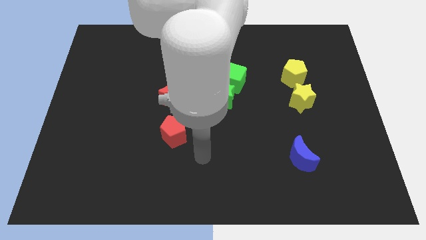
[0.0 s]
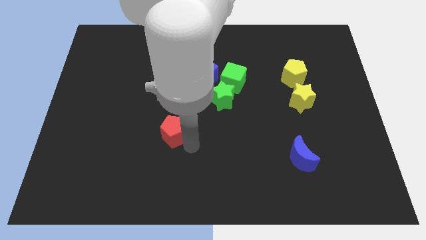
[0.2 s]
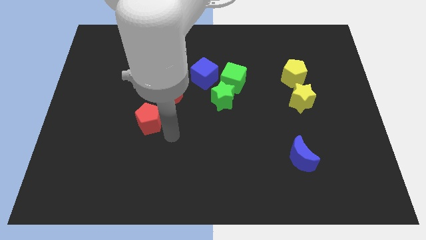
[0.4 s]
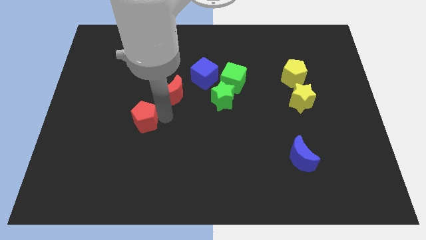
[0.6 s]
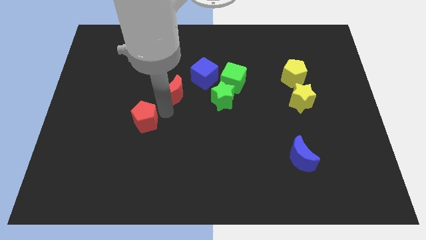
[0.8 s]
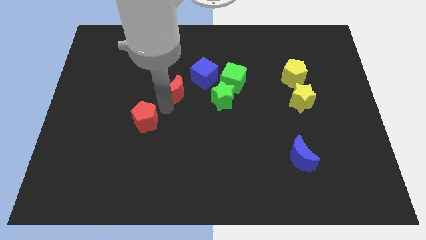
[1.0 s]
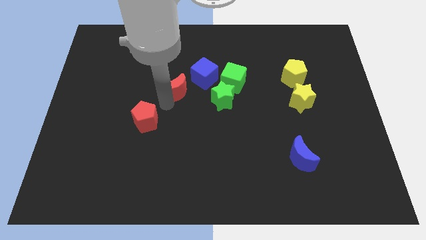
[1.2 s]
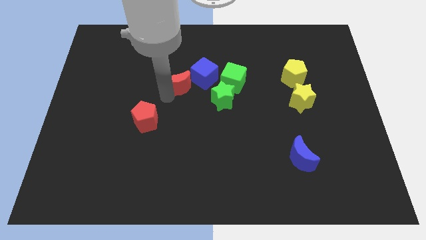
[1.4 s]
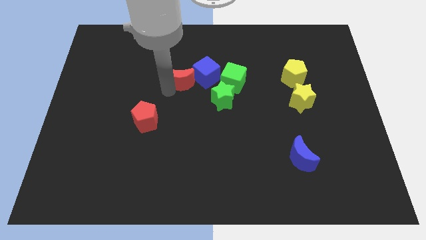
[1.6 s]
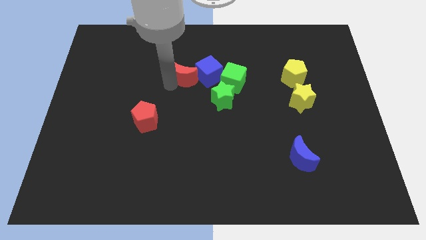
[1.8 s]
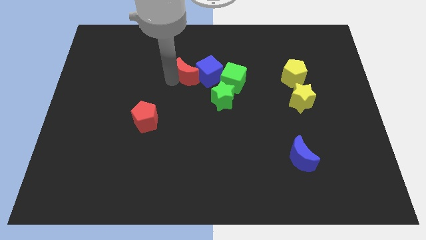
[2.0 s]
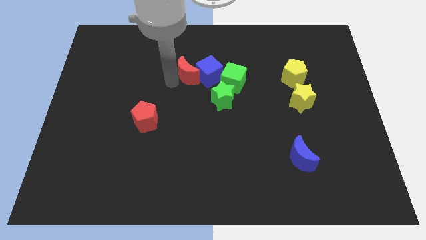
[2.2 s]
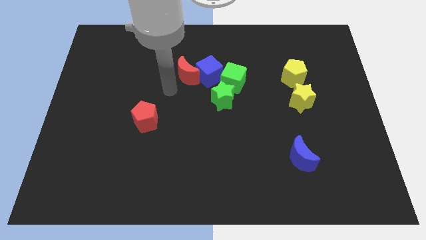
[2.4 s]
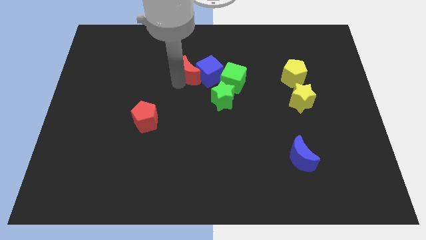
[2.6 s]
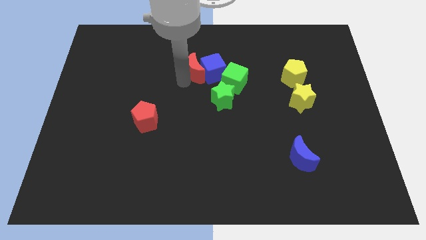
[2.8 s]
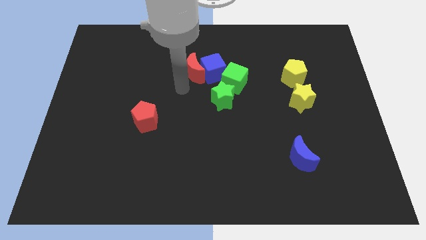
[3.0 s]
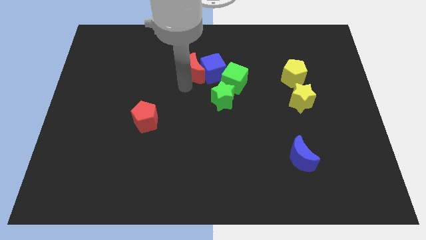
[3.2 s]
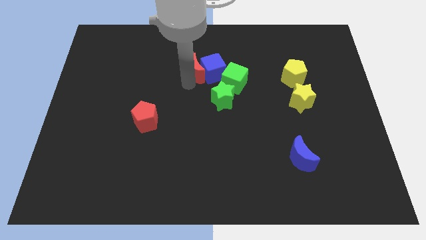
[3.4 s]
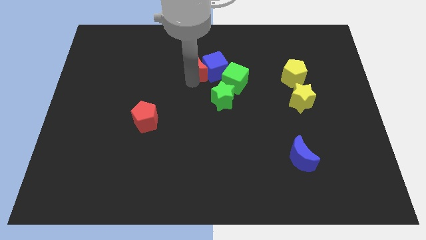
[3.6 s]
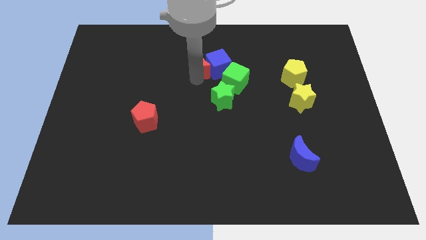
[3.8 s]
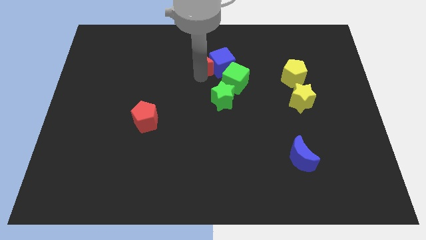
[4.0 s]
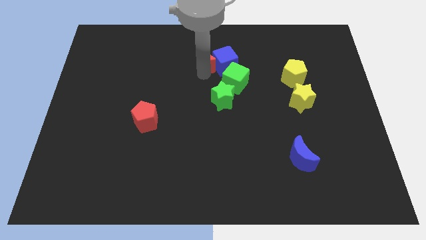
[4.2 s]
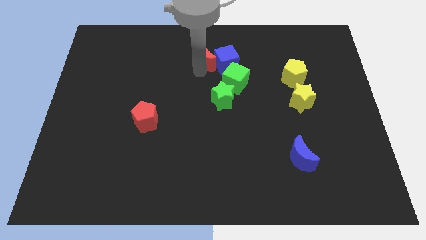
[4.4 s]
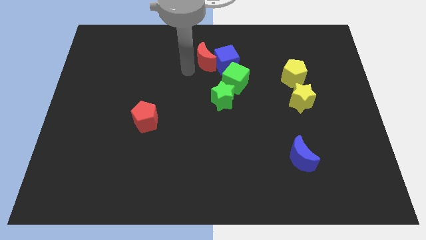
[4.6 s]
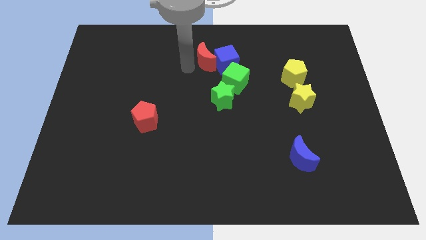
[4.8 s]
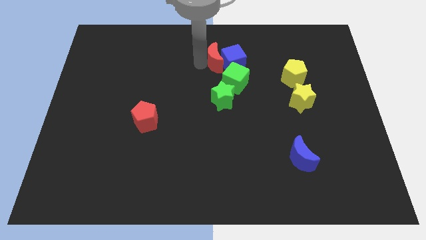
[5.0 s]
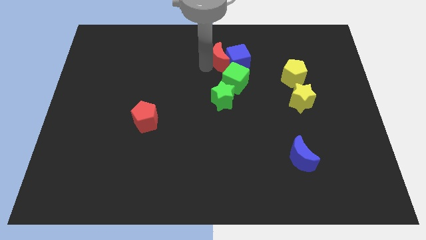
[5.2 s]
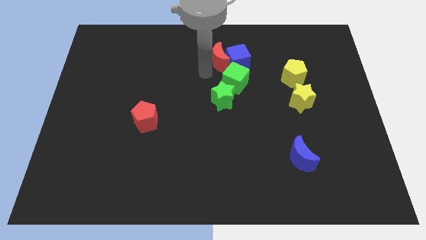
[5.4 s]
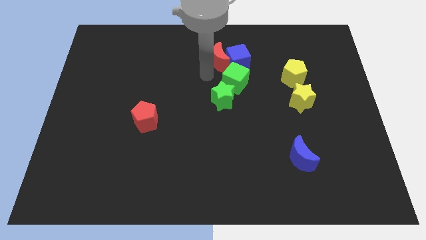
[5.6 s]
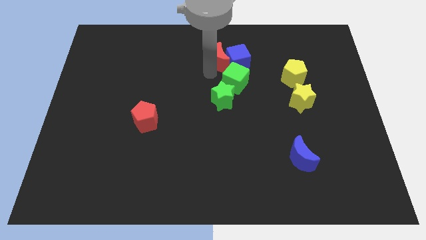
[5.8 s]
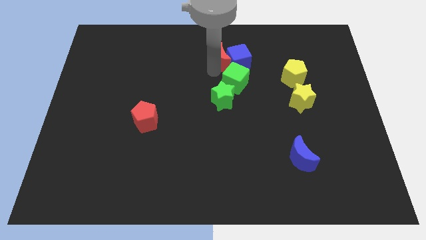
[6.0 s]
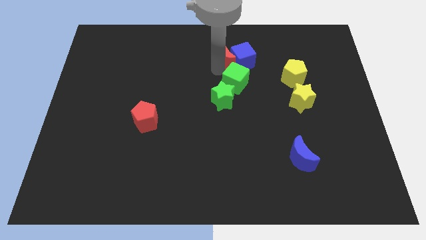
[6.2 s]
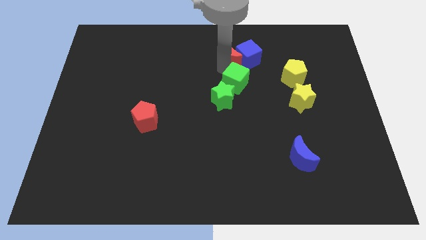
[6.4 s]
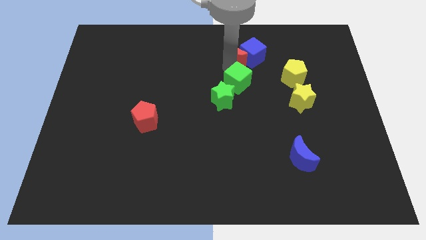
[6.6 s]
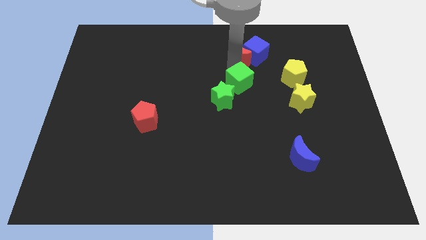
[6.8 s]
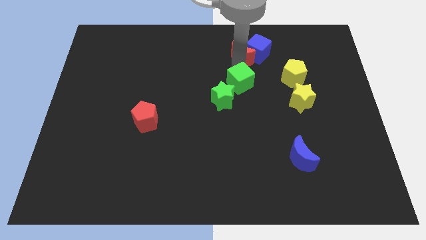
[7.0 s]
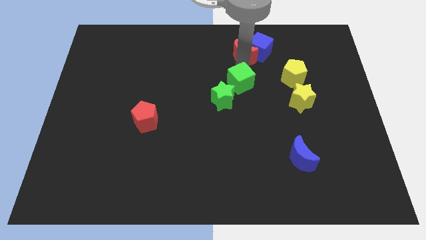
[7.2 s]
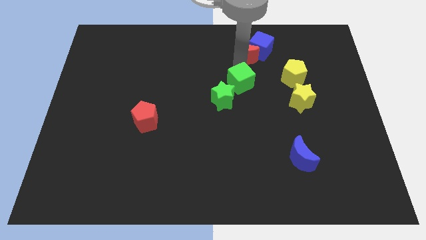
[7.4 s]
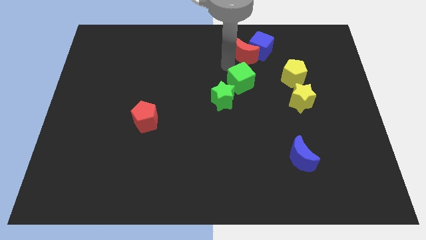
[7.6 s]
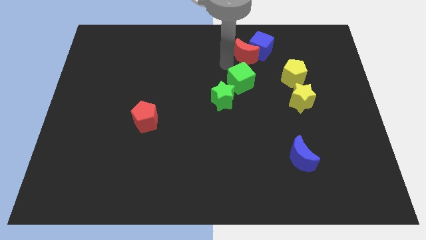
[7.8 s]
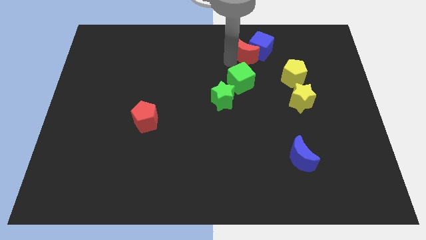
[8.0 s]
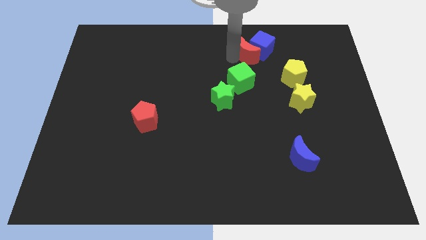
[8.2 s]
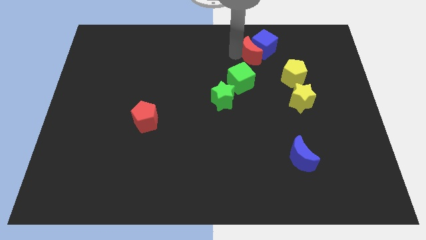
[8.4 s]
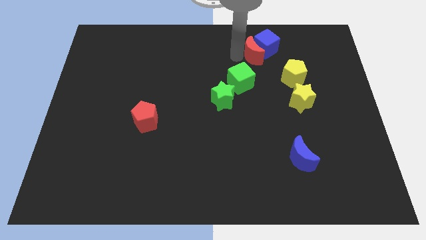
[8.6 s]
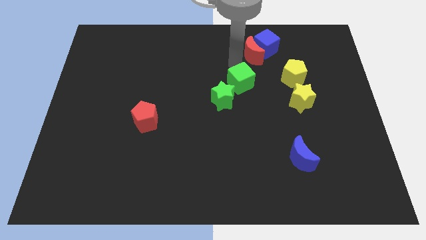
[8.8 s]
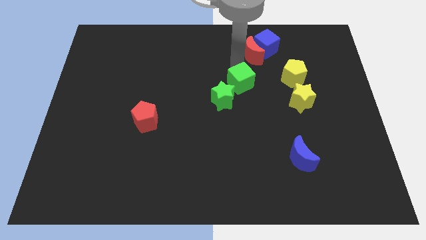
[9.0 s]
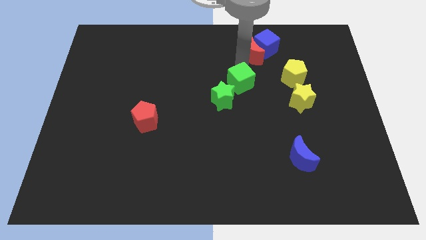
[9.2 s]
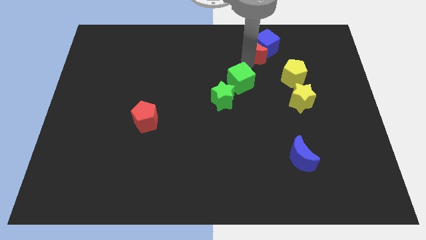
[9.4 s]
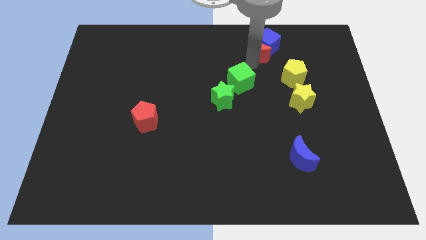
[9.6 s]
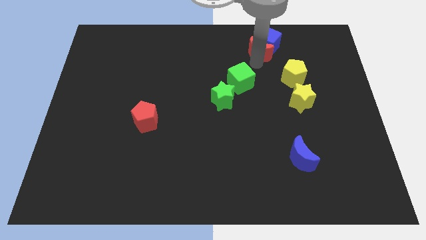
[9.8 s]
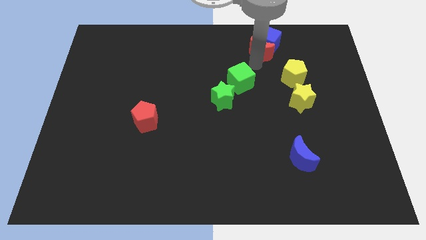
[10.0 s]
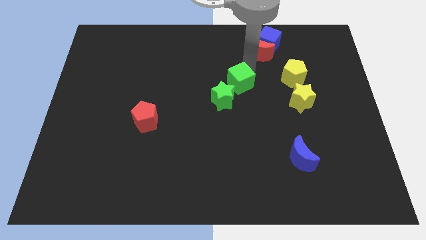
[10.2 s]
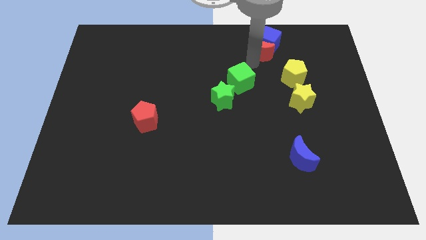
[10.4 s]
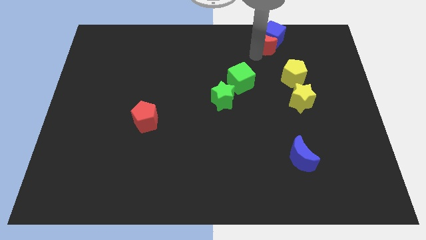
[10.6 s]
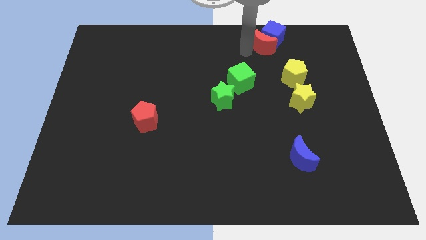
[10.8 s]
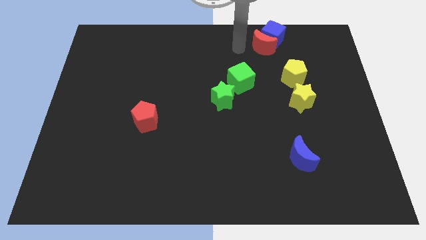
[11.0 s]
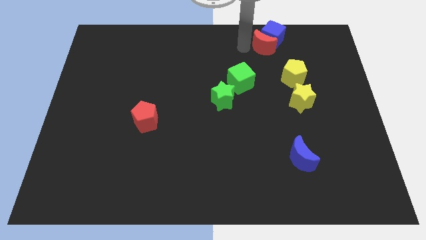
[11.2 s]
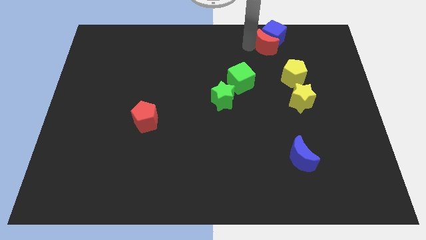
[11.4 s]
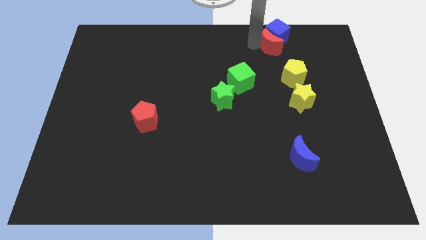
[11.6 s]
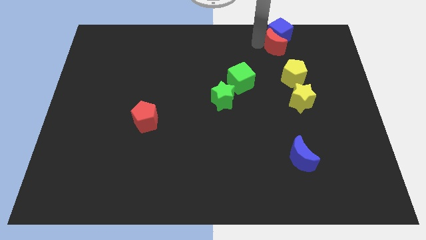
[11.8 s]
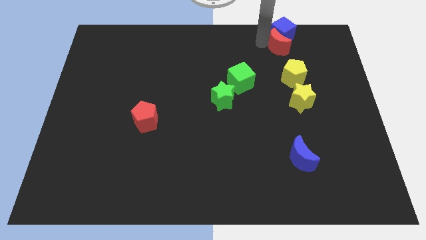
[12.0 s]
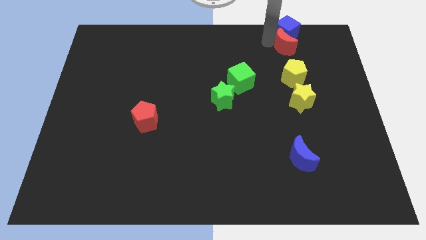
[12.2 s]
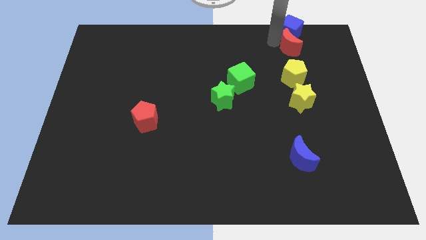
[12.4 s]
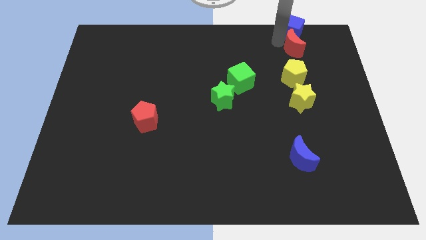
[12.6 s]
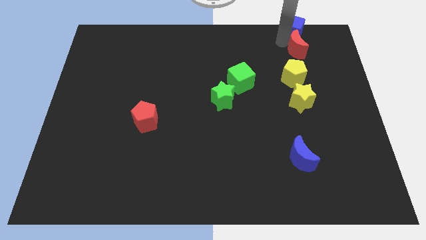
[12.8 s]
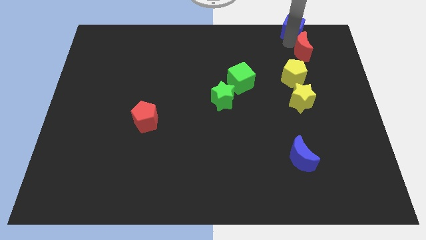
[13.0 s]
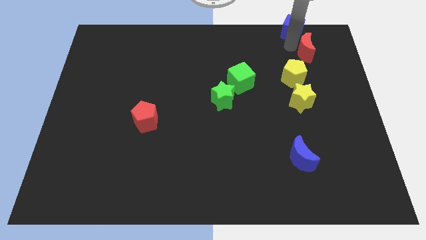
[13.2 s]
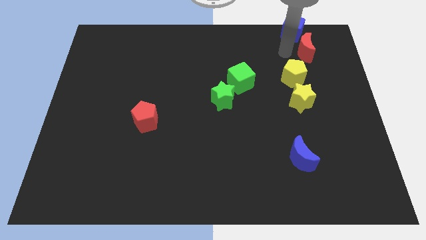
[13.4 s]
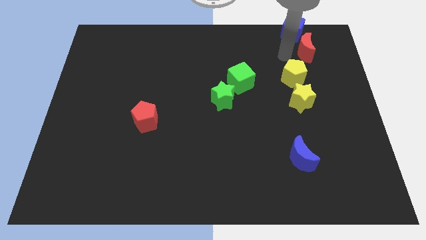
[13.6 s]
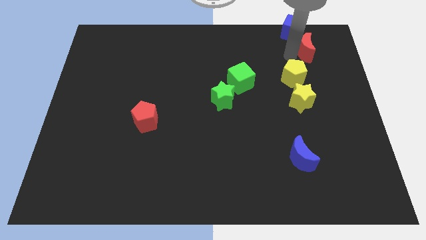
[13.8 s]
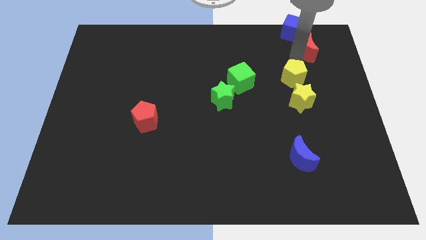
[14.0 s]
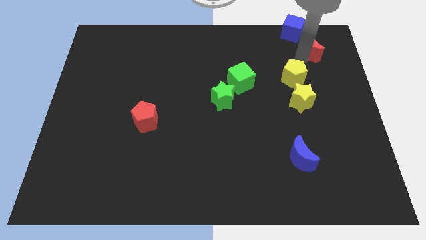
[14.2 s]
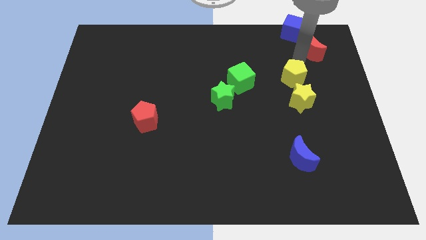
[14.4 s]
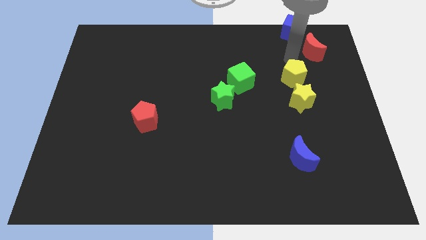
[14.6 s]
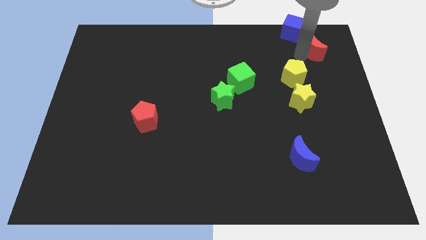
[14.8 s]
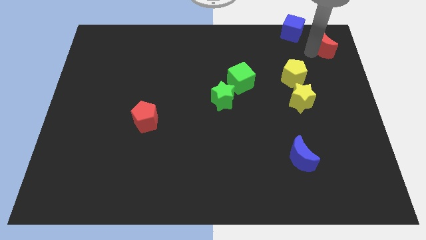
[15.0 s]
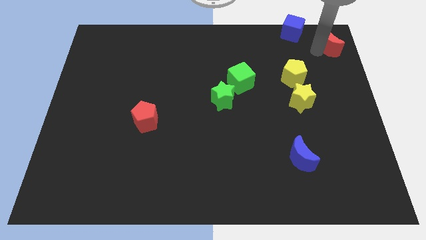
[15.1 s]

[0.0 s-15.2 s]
slide the red moon to the top right corner
